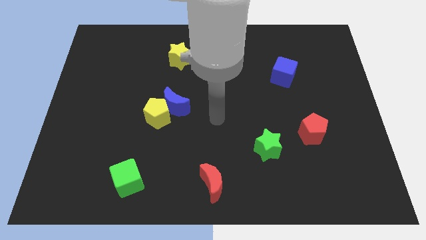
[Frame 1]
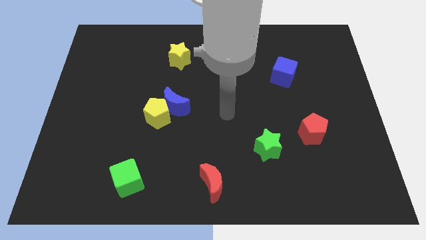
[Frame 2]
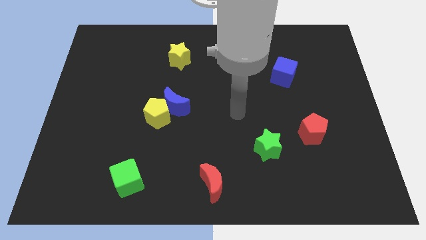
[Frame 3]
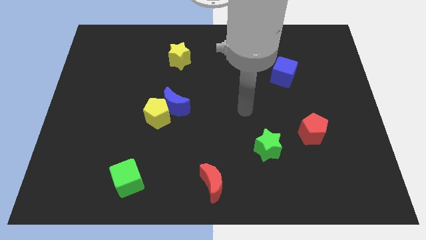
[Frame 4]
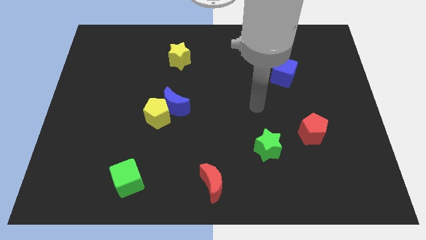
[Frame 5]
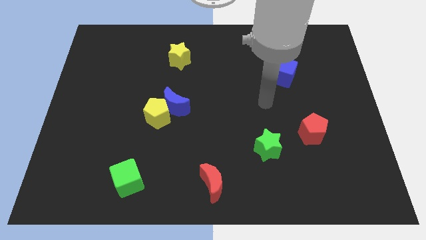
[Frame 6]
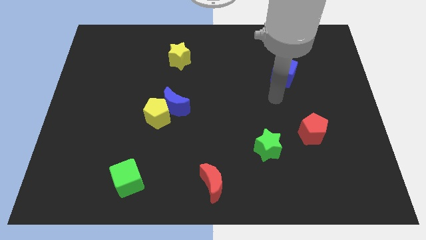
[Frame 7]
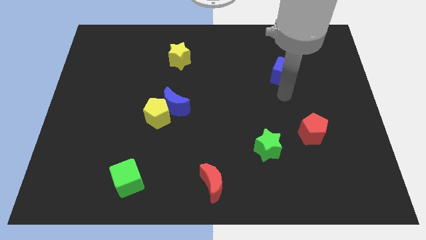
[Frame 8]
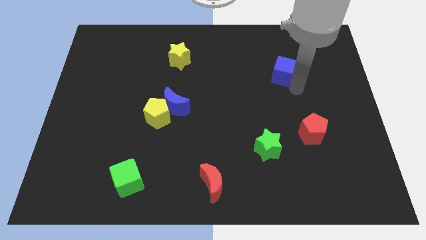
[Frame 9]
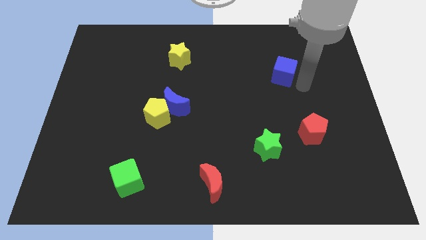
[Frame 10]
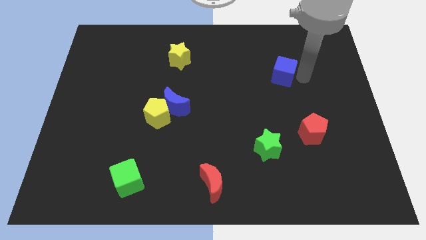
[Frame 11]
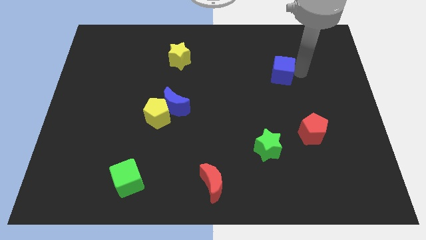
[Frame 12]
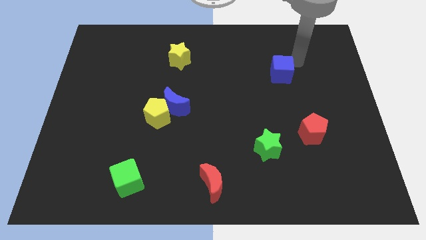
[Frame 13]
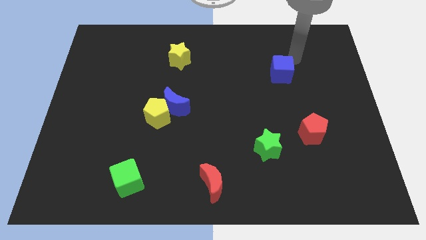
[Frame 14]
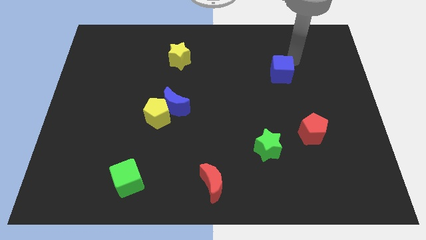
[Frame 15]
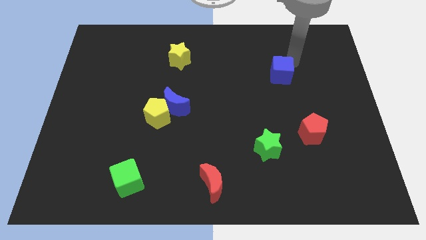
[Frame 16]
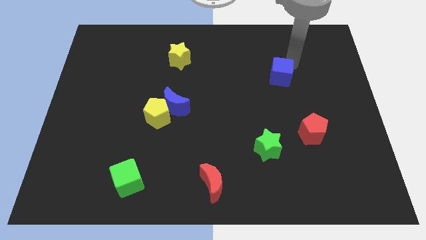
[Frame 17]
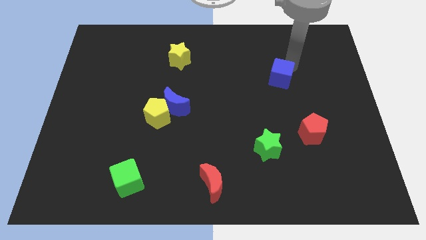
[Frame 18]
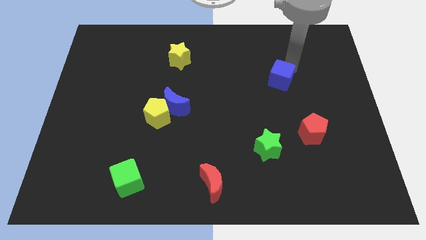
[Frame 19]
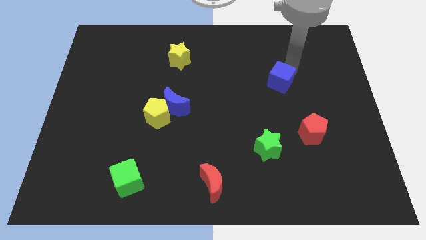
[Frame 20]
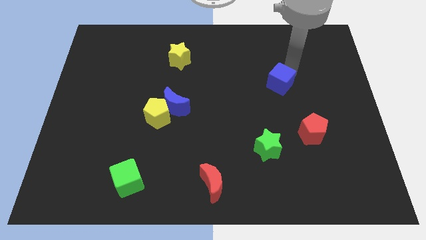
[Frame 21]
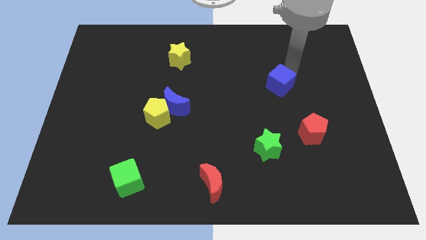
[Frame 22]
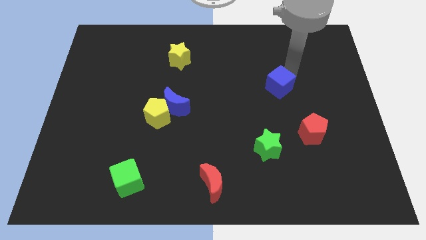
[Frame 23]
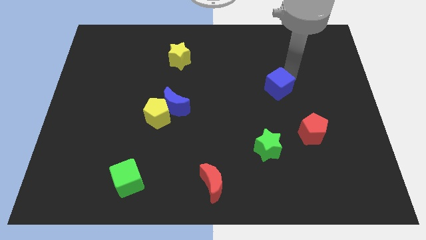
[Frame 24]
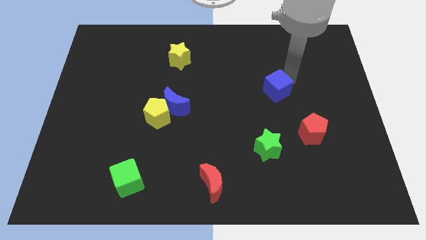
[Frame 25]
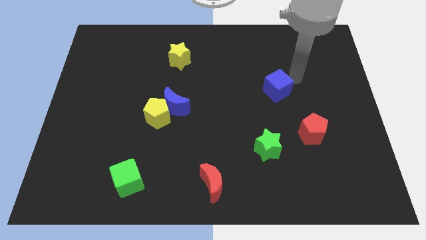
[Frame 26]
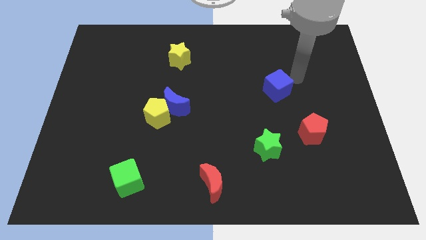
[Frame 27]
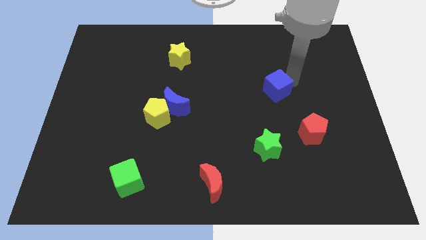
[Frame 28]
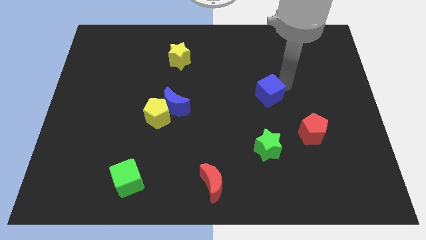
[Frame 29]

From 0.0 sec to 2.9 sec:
move the blue cube diagonally downwards and to the left a bit

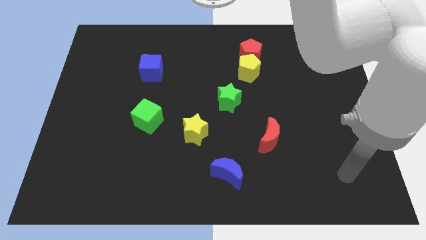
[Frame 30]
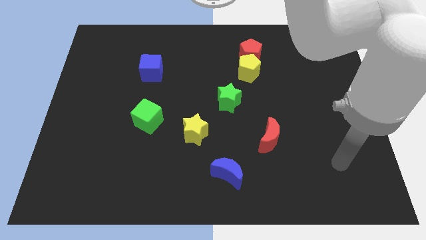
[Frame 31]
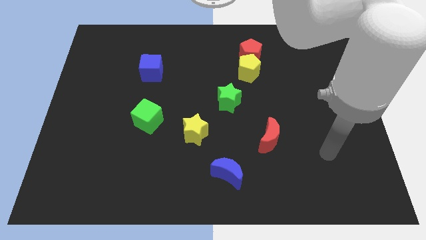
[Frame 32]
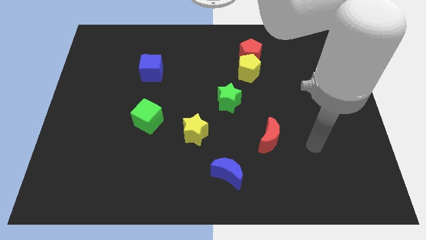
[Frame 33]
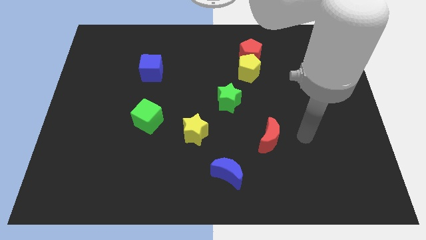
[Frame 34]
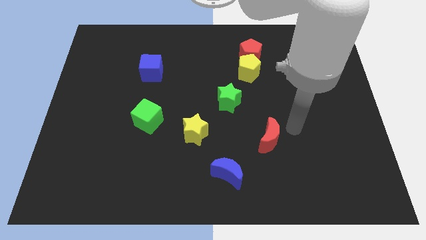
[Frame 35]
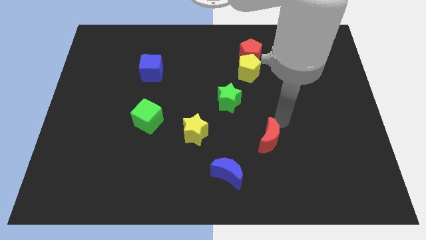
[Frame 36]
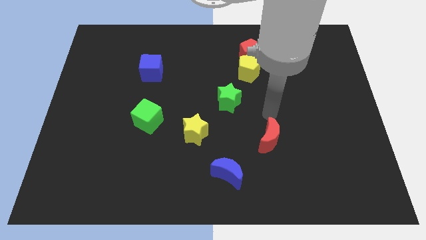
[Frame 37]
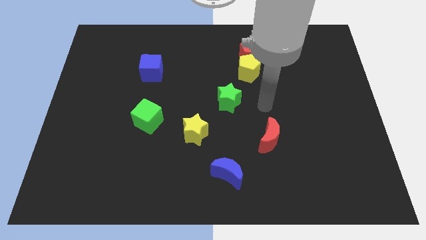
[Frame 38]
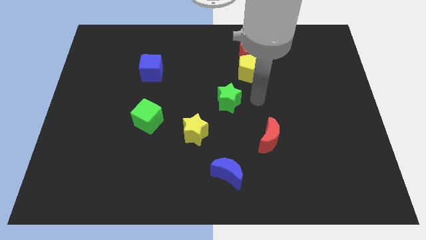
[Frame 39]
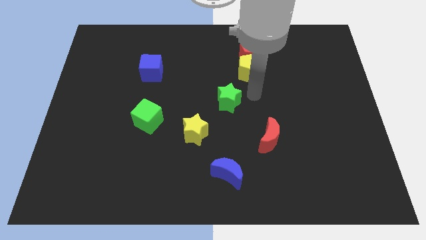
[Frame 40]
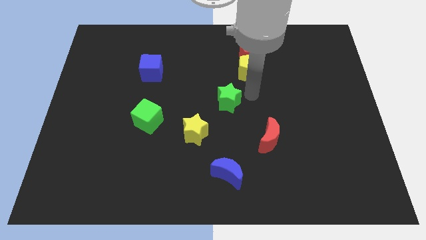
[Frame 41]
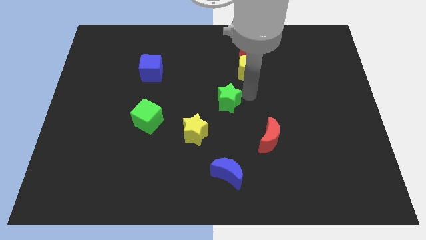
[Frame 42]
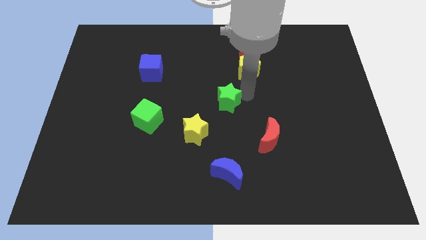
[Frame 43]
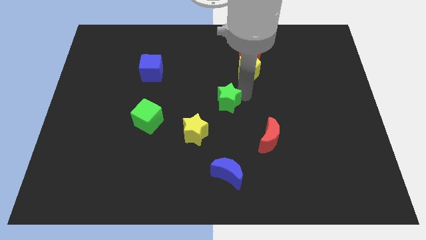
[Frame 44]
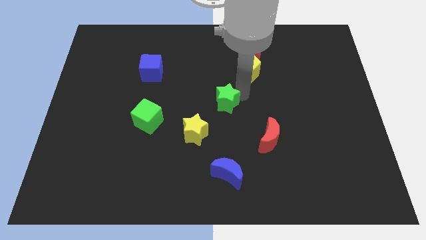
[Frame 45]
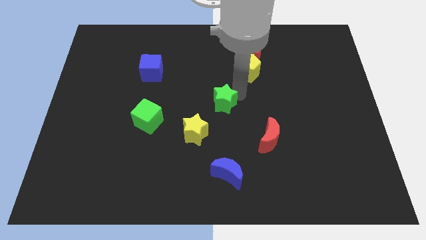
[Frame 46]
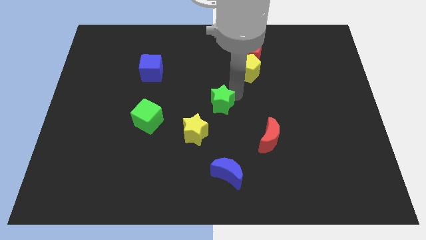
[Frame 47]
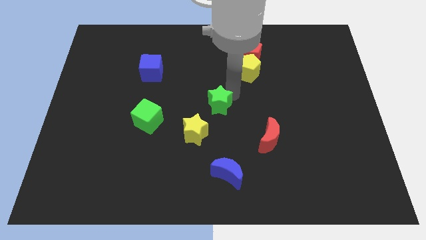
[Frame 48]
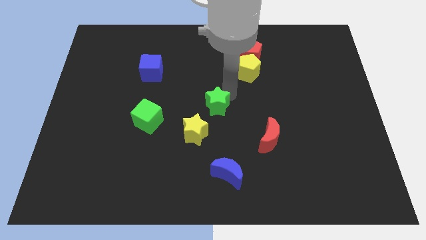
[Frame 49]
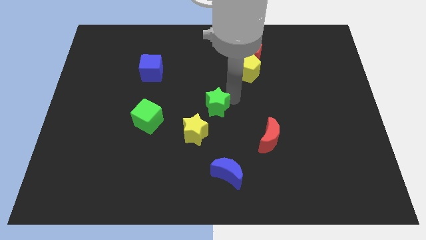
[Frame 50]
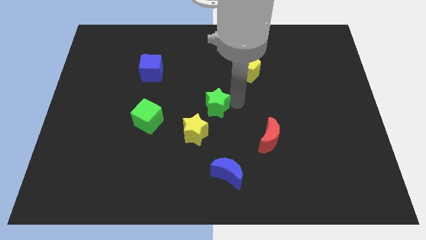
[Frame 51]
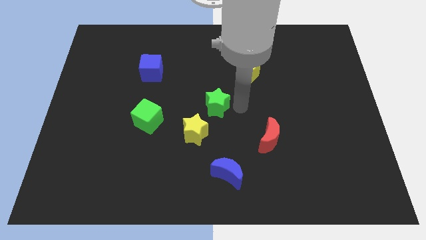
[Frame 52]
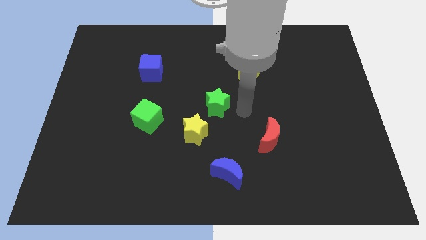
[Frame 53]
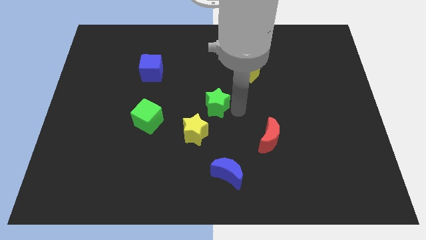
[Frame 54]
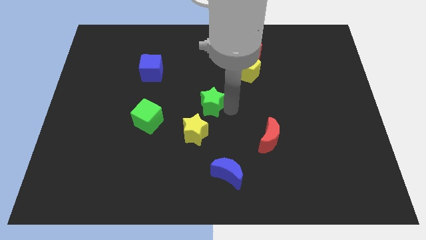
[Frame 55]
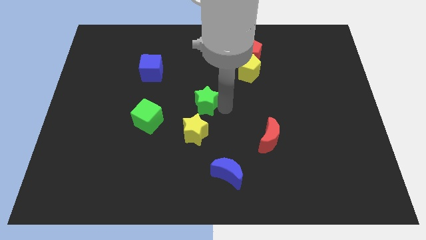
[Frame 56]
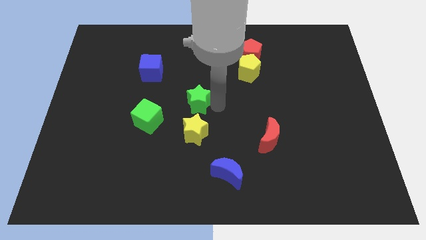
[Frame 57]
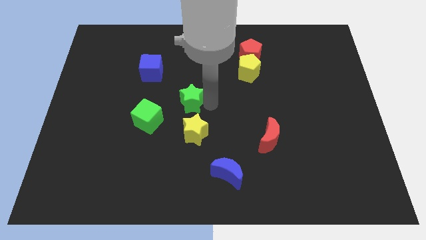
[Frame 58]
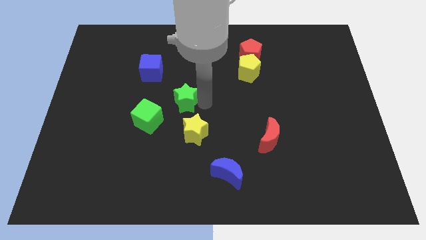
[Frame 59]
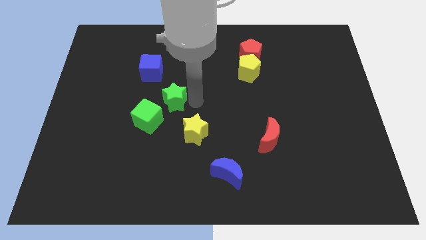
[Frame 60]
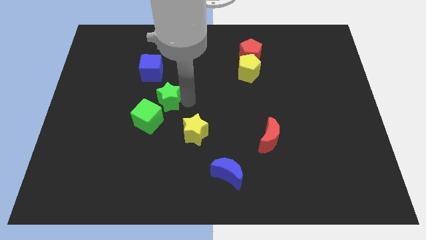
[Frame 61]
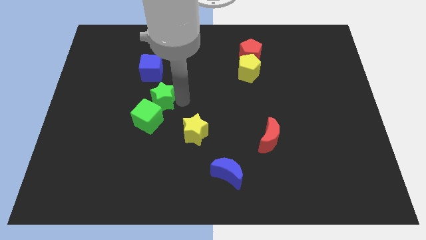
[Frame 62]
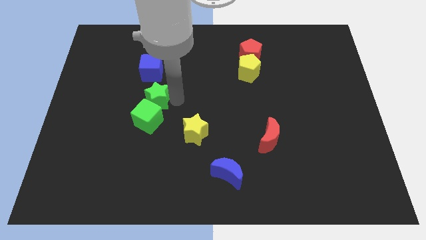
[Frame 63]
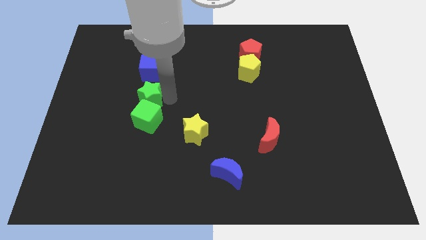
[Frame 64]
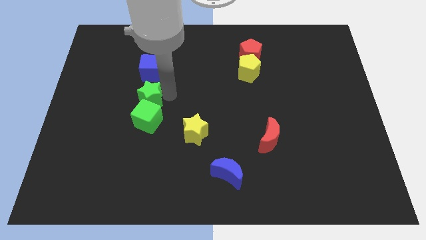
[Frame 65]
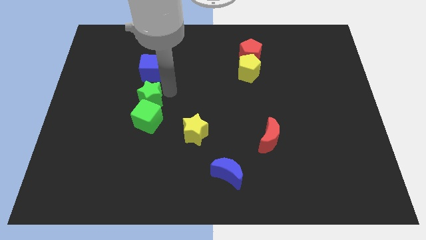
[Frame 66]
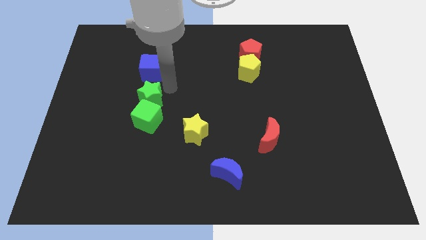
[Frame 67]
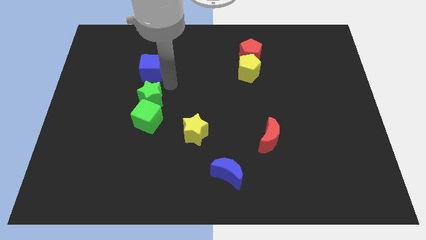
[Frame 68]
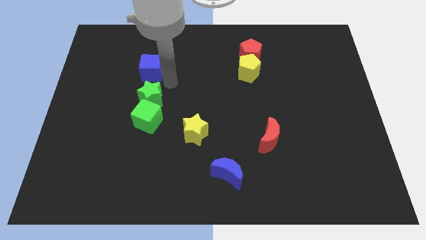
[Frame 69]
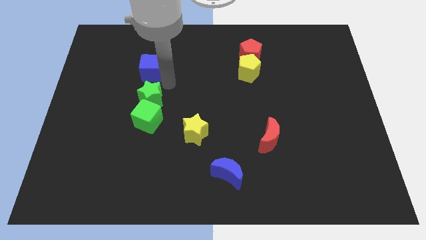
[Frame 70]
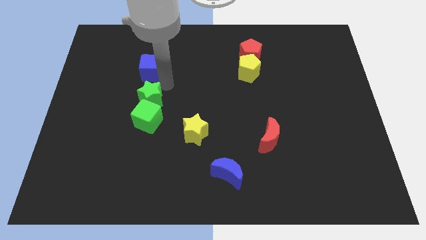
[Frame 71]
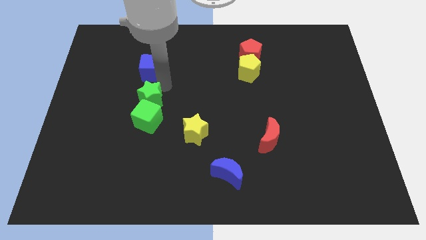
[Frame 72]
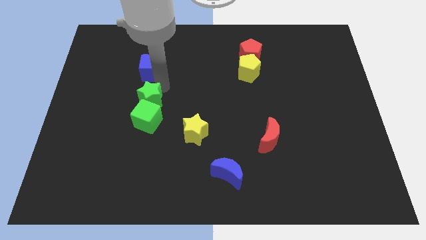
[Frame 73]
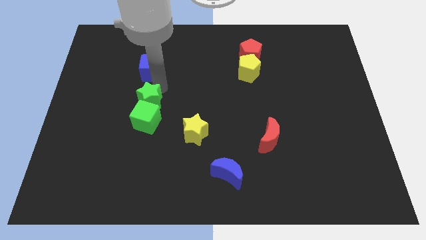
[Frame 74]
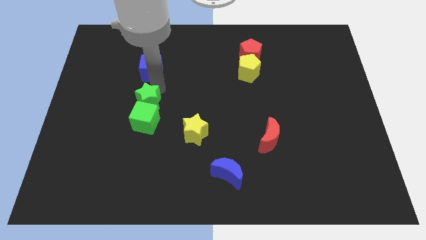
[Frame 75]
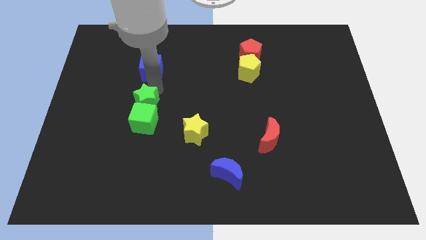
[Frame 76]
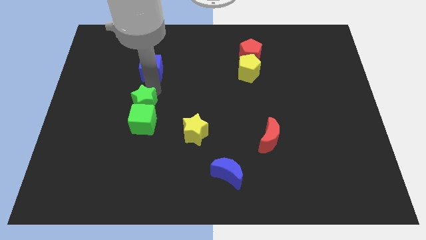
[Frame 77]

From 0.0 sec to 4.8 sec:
push the green star left
